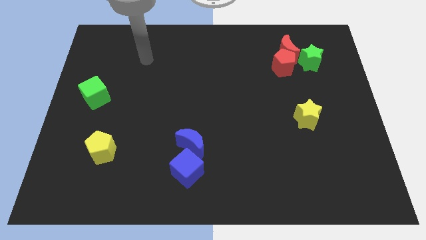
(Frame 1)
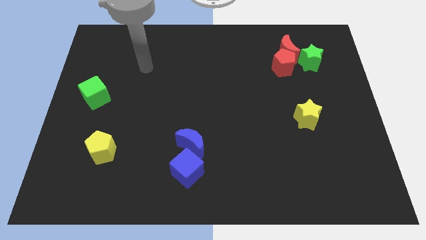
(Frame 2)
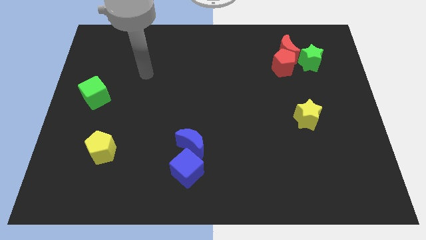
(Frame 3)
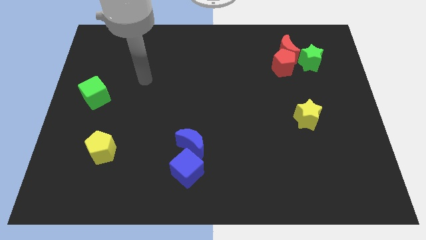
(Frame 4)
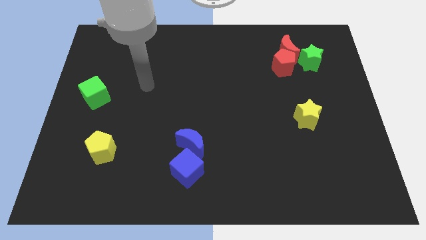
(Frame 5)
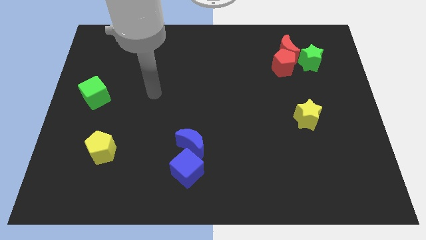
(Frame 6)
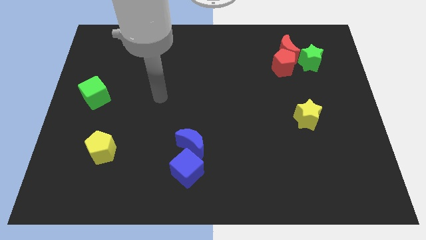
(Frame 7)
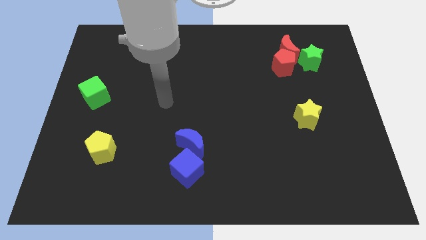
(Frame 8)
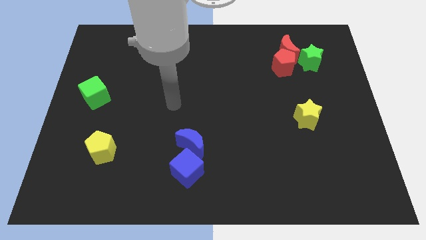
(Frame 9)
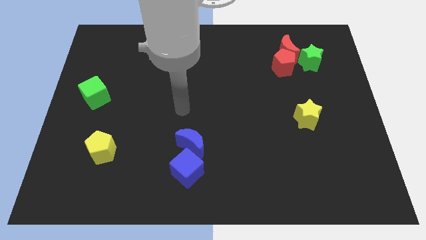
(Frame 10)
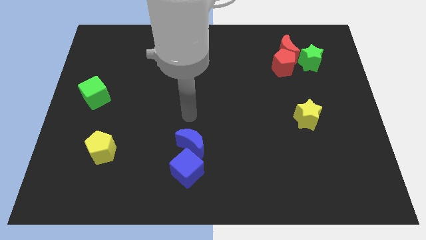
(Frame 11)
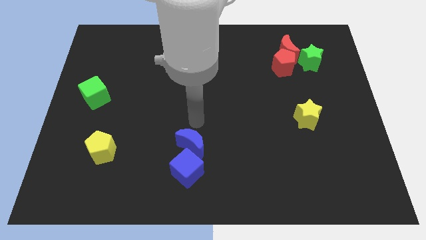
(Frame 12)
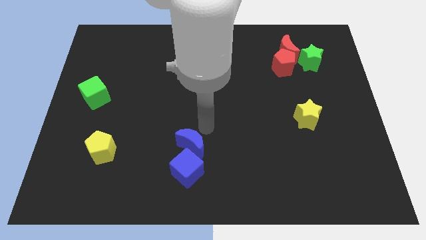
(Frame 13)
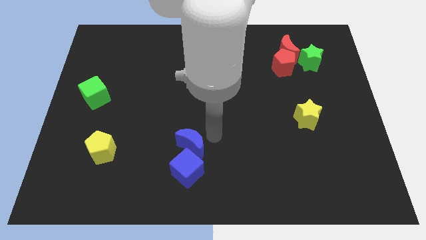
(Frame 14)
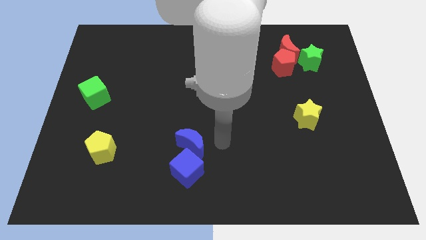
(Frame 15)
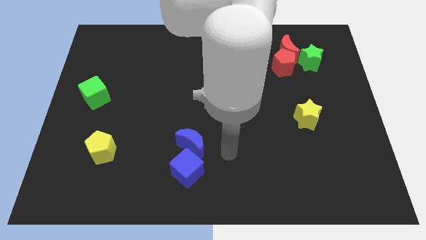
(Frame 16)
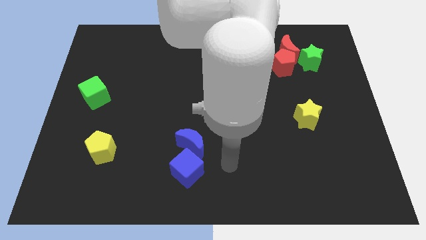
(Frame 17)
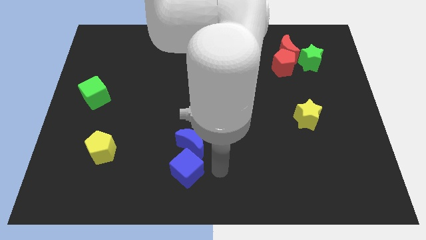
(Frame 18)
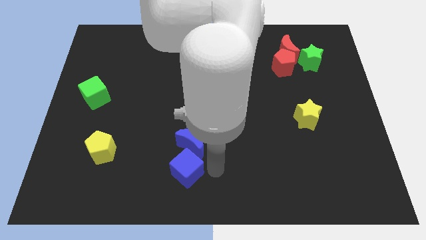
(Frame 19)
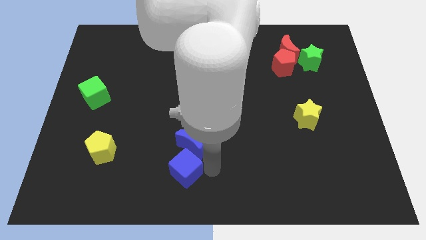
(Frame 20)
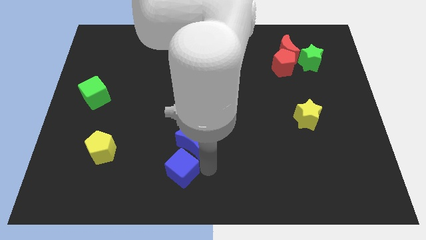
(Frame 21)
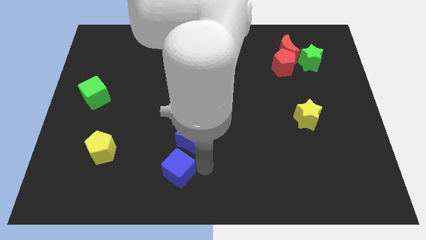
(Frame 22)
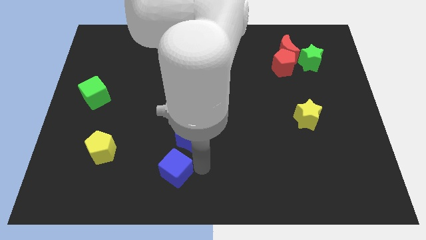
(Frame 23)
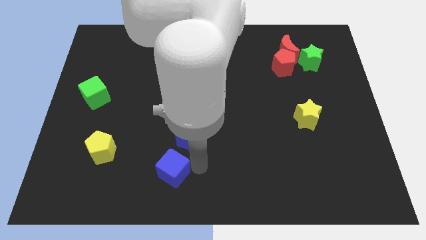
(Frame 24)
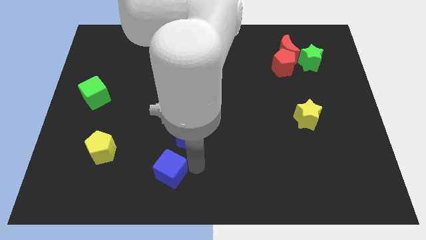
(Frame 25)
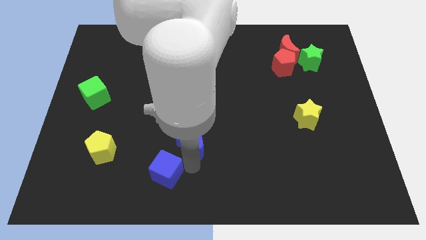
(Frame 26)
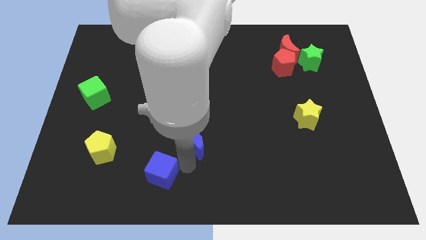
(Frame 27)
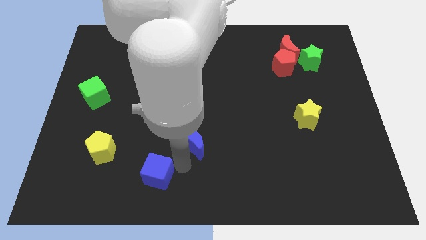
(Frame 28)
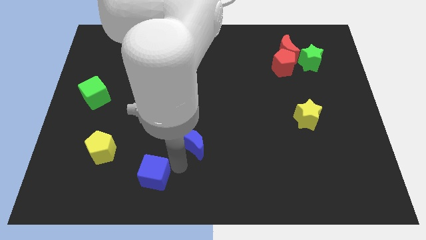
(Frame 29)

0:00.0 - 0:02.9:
slide the blue cube left slightly

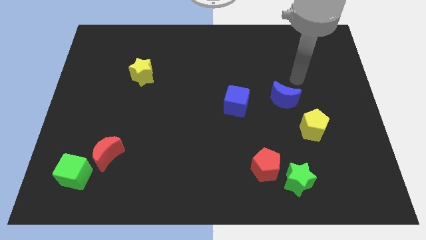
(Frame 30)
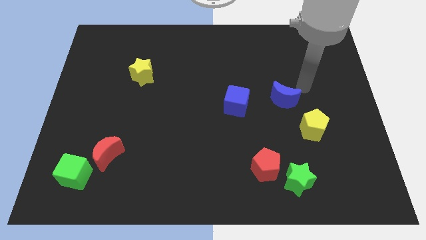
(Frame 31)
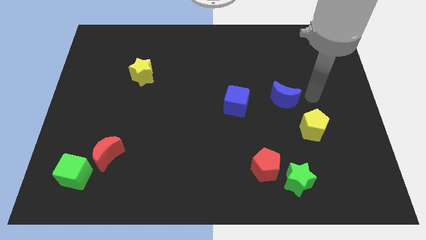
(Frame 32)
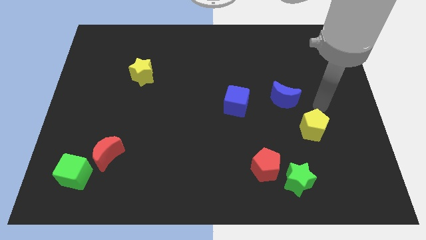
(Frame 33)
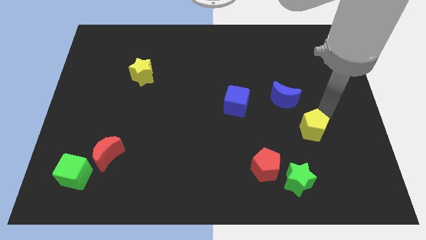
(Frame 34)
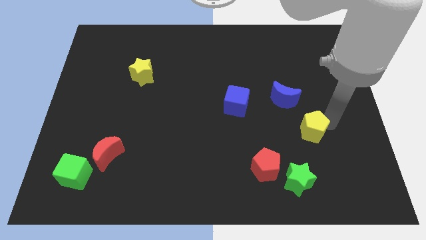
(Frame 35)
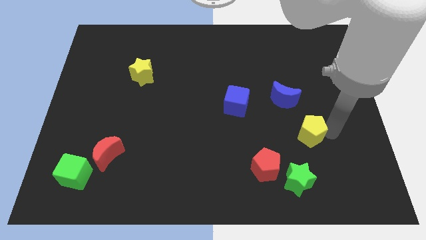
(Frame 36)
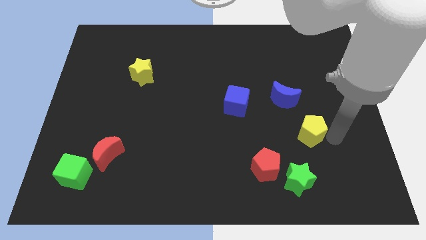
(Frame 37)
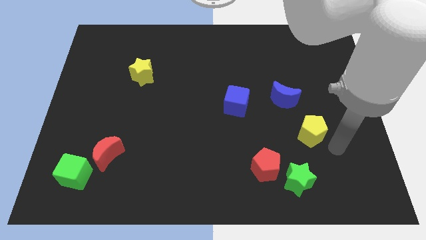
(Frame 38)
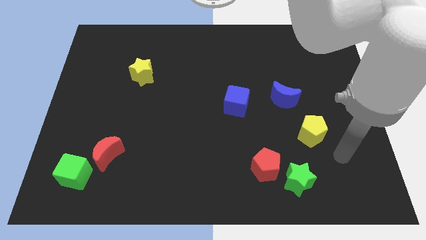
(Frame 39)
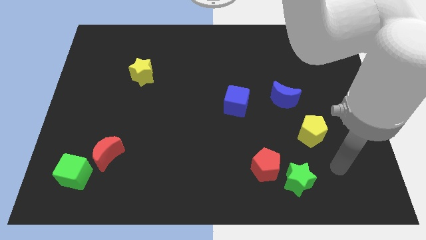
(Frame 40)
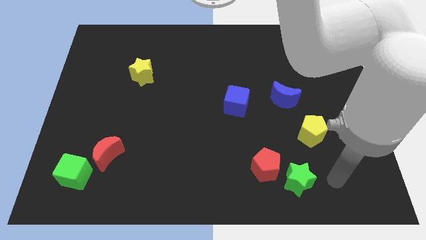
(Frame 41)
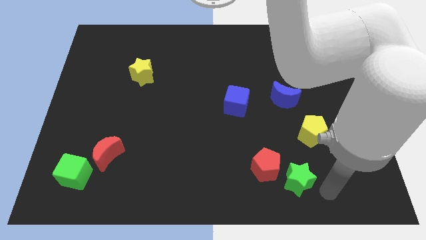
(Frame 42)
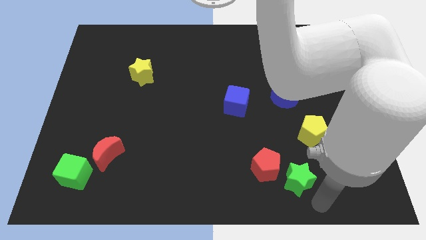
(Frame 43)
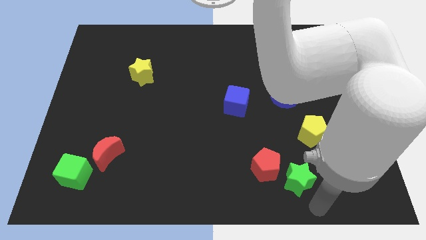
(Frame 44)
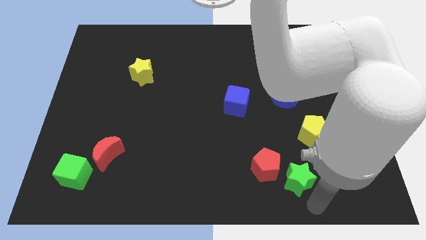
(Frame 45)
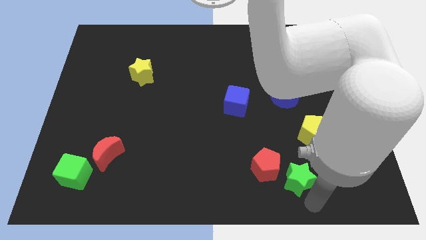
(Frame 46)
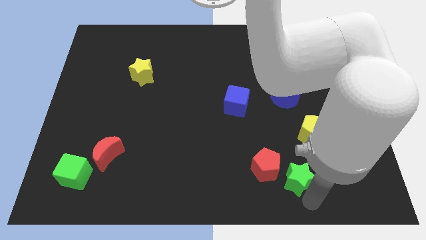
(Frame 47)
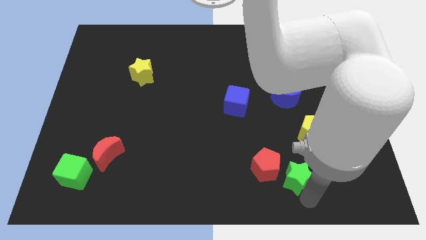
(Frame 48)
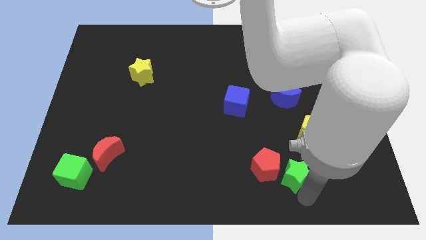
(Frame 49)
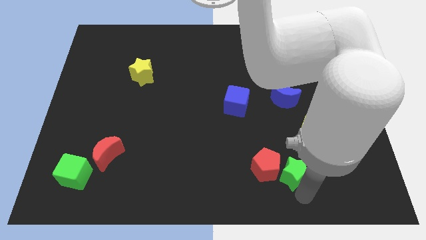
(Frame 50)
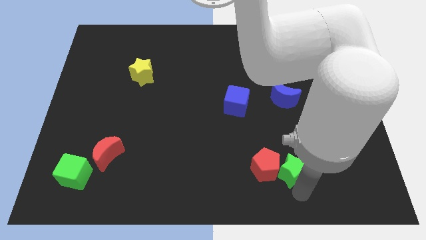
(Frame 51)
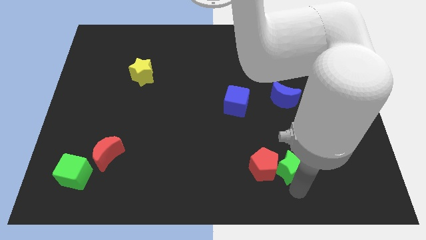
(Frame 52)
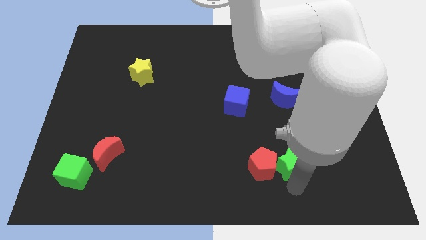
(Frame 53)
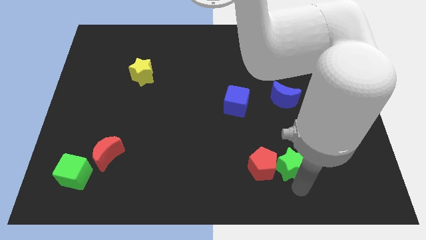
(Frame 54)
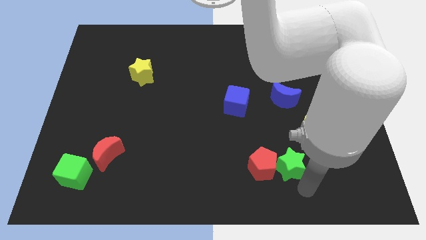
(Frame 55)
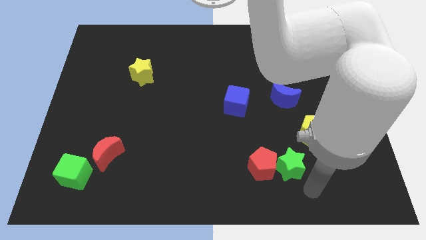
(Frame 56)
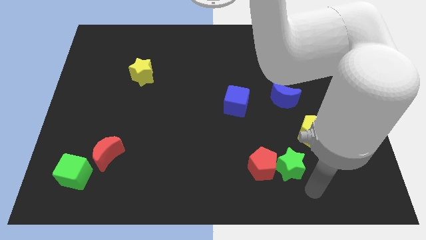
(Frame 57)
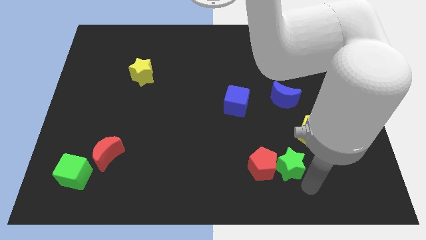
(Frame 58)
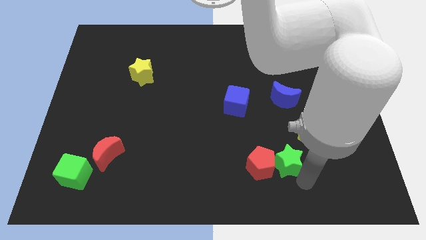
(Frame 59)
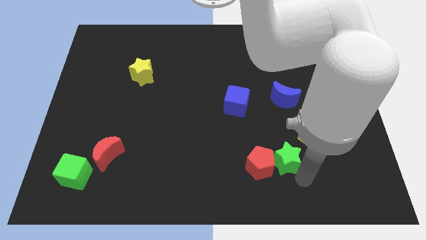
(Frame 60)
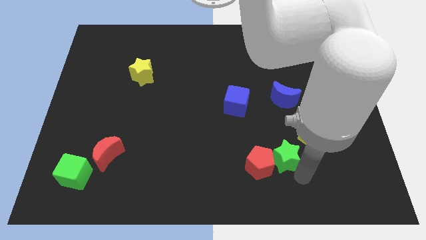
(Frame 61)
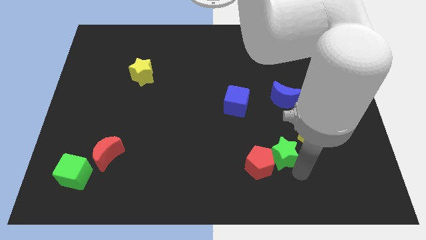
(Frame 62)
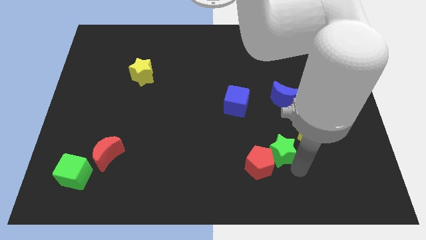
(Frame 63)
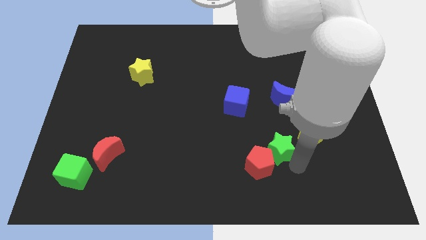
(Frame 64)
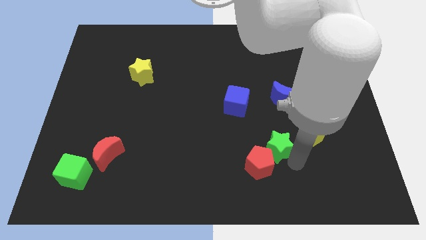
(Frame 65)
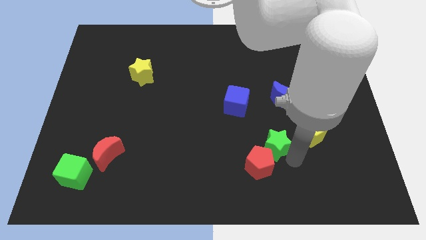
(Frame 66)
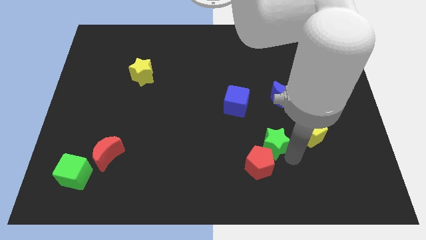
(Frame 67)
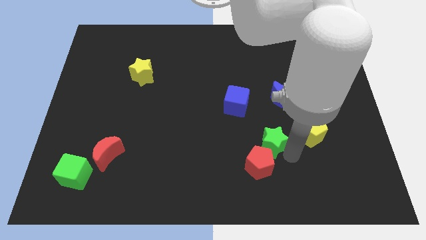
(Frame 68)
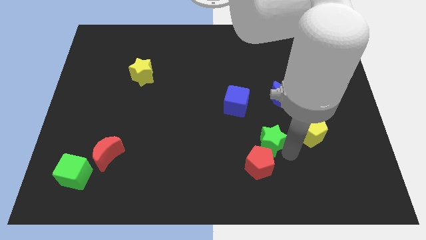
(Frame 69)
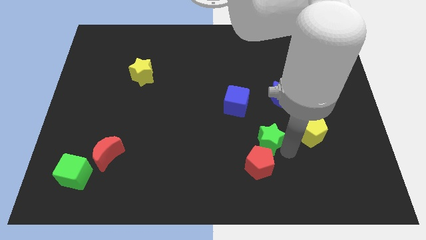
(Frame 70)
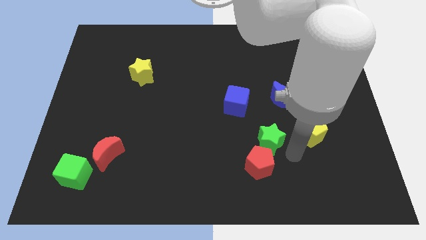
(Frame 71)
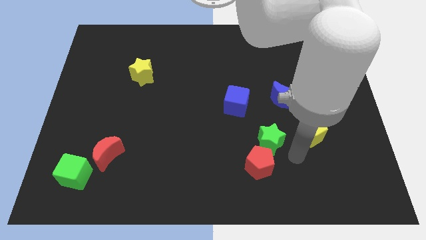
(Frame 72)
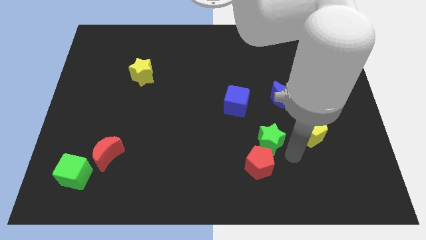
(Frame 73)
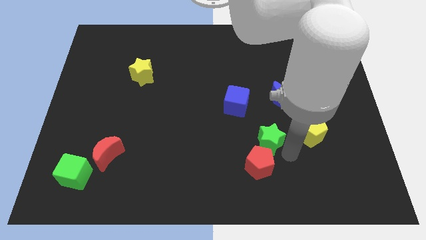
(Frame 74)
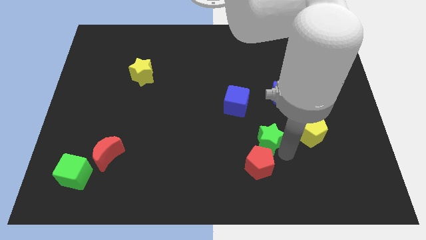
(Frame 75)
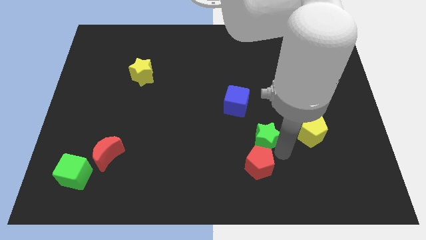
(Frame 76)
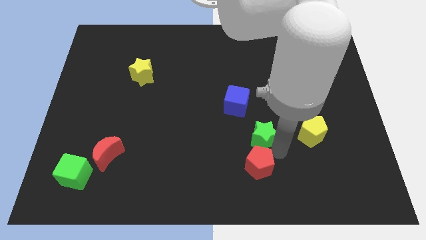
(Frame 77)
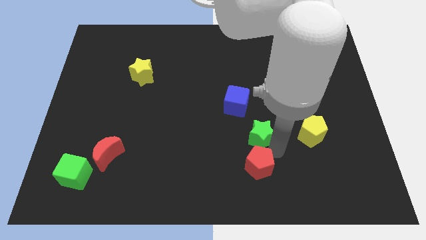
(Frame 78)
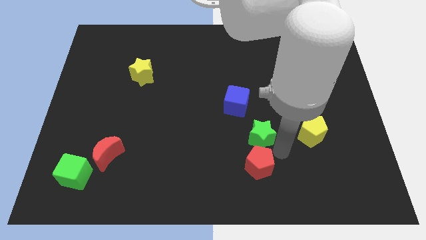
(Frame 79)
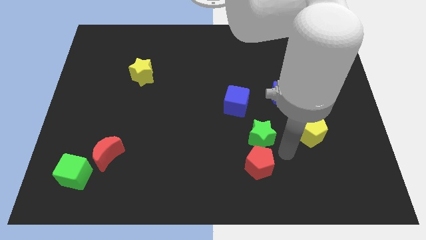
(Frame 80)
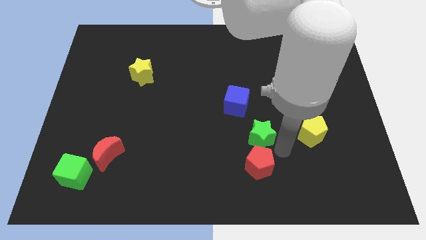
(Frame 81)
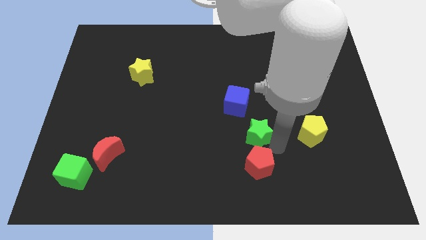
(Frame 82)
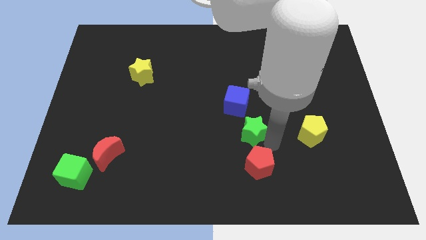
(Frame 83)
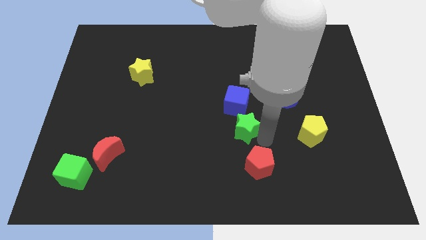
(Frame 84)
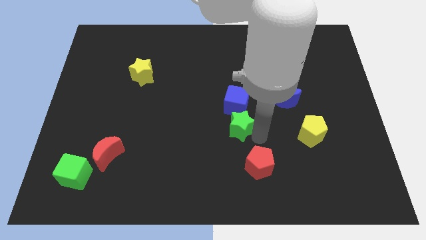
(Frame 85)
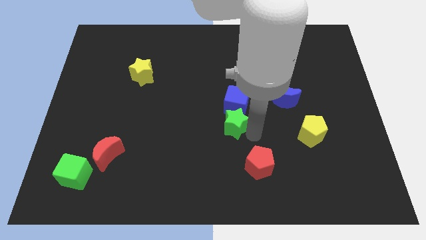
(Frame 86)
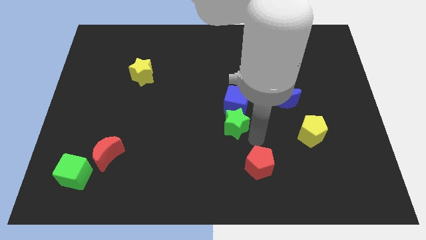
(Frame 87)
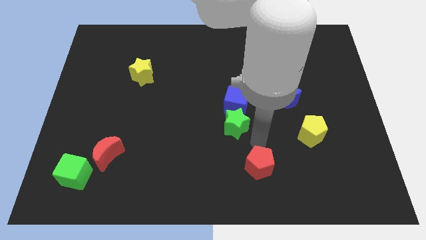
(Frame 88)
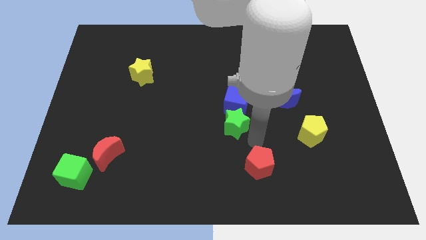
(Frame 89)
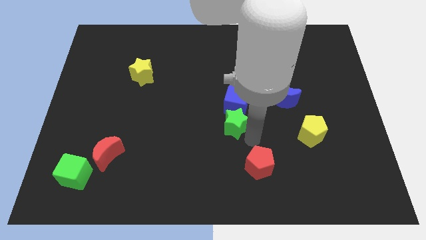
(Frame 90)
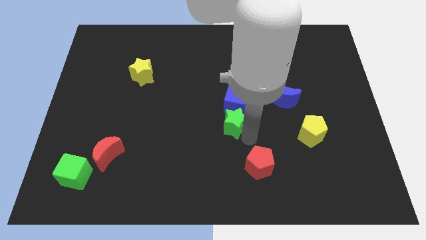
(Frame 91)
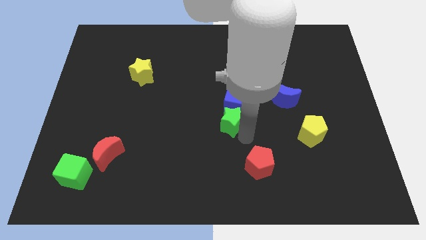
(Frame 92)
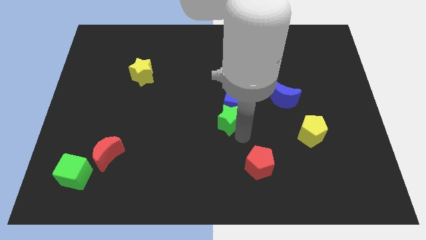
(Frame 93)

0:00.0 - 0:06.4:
move the green star upwards and left
